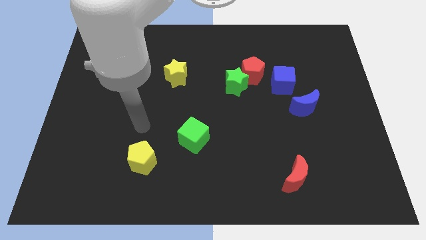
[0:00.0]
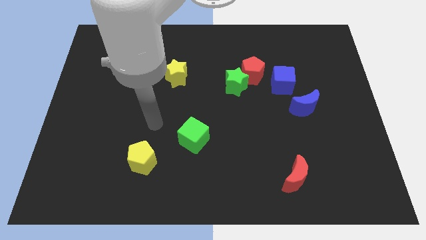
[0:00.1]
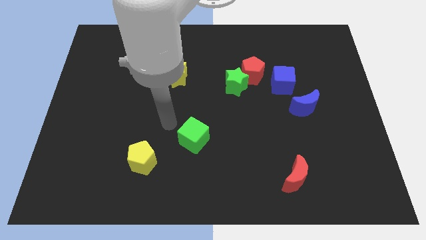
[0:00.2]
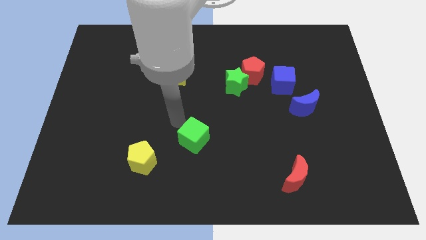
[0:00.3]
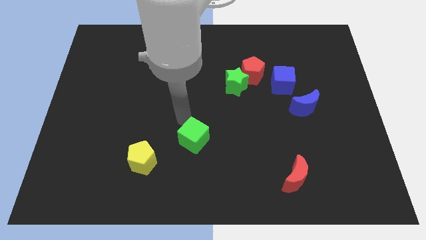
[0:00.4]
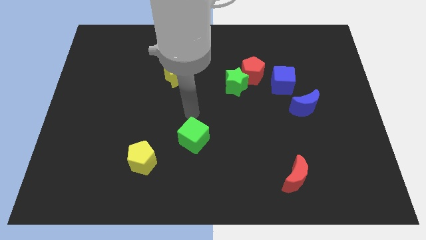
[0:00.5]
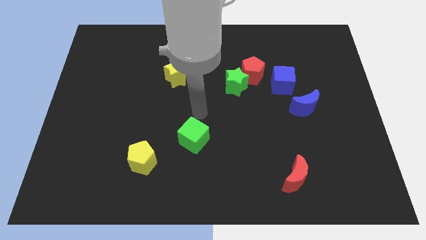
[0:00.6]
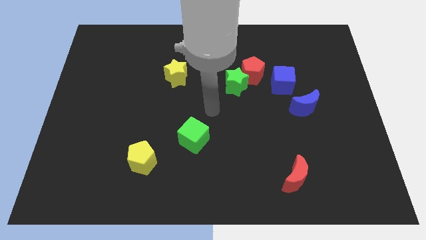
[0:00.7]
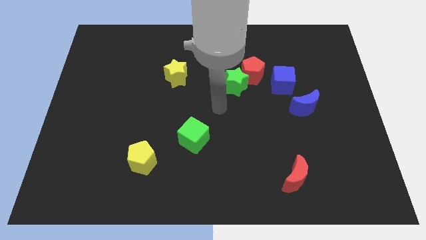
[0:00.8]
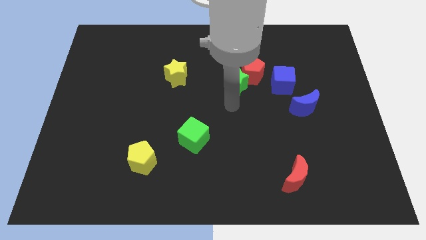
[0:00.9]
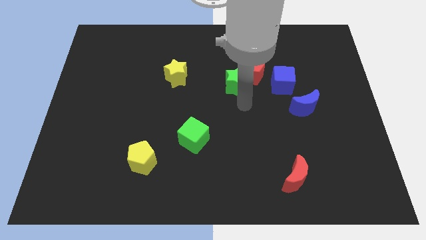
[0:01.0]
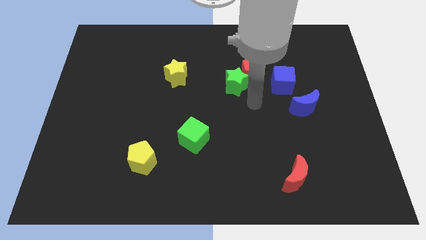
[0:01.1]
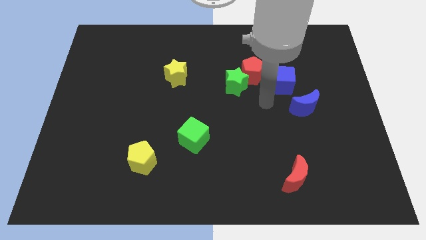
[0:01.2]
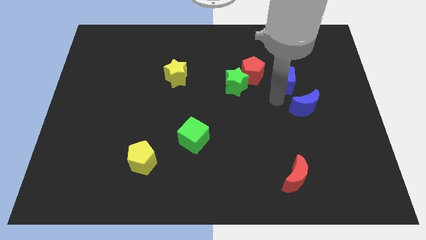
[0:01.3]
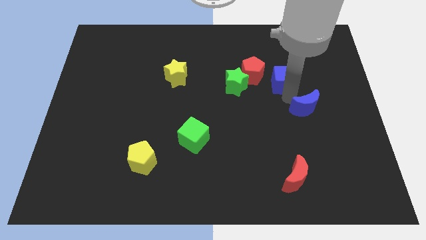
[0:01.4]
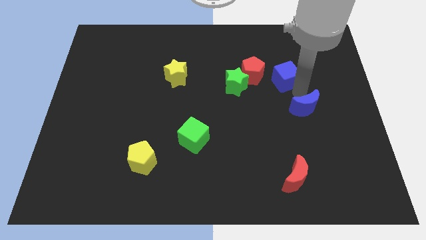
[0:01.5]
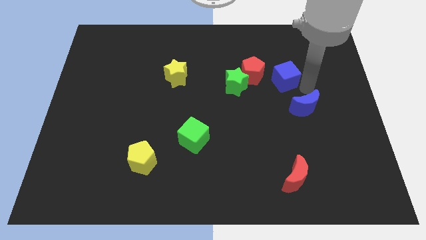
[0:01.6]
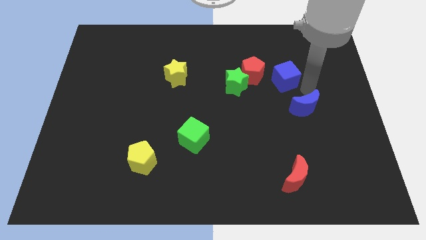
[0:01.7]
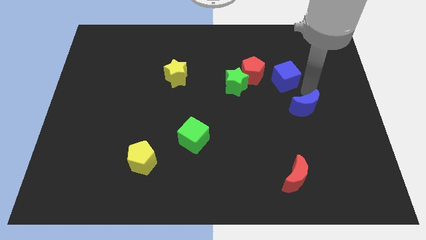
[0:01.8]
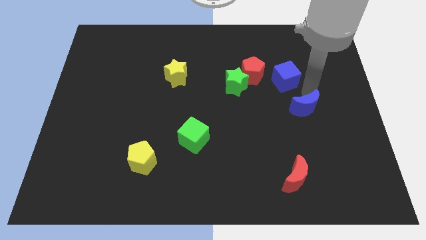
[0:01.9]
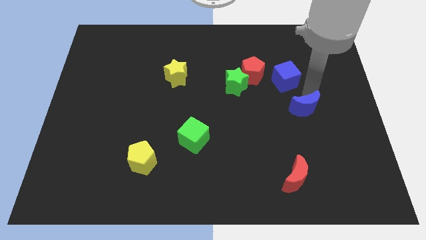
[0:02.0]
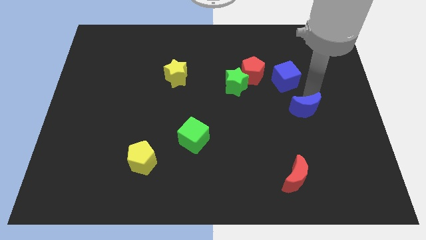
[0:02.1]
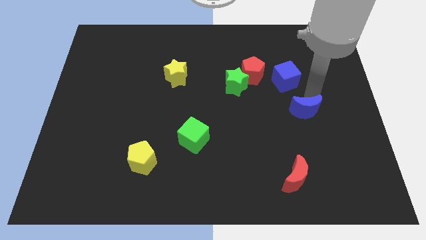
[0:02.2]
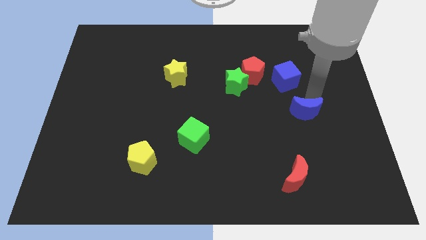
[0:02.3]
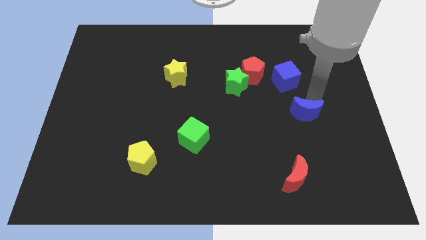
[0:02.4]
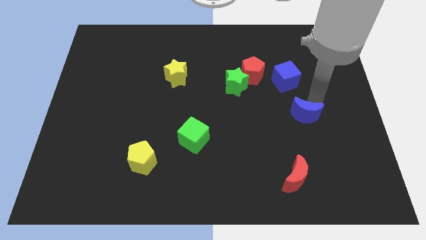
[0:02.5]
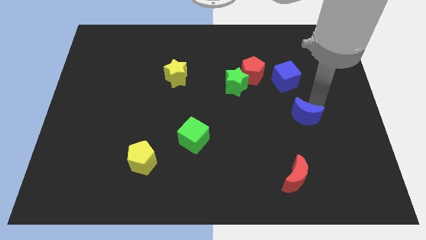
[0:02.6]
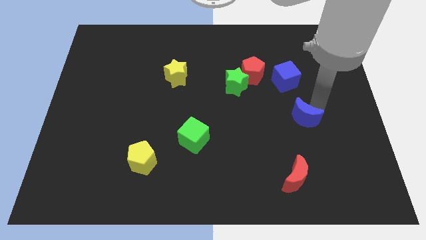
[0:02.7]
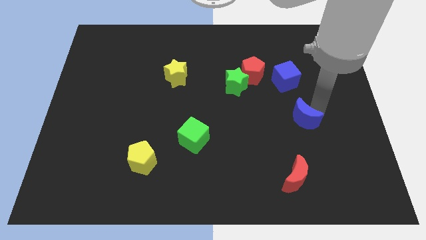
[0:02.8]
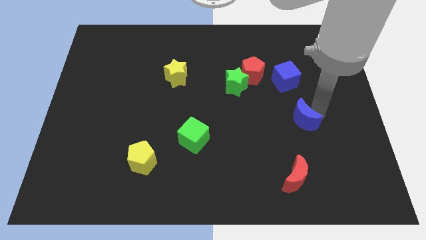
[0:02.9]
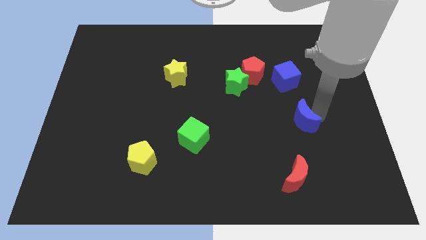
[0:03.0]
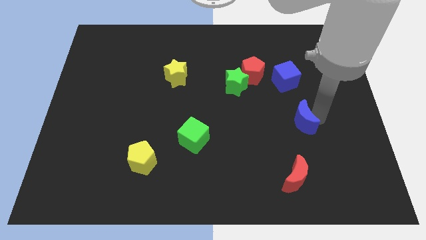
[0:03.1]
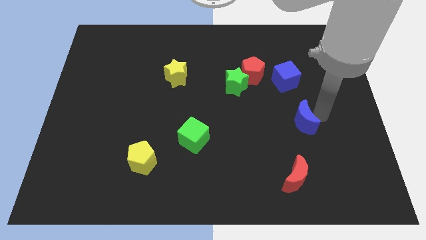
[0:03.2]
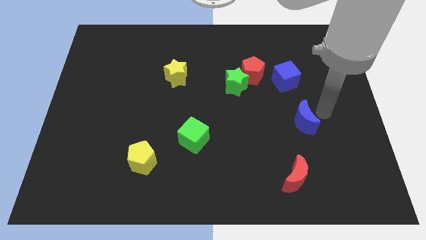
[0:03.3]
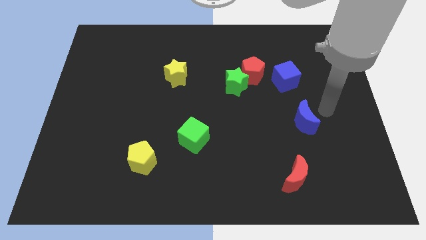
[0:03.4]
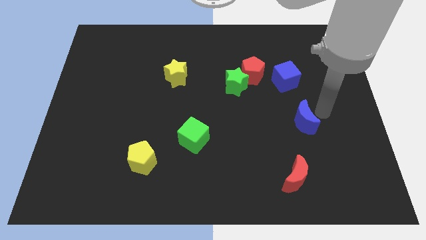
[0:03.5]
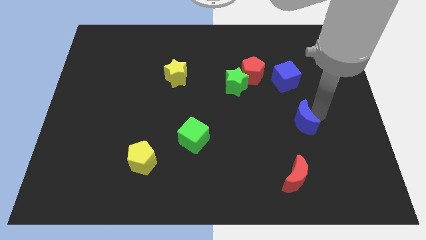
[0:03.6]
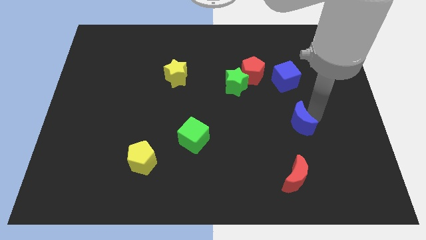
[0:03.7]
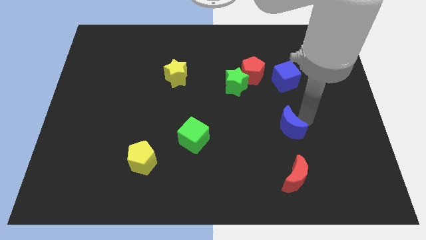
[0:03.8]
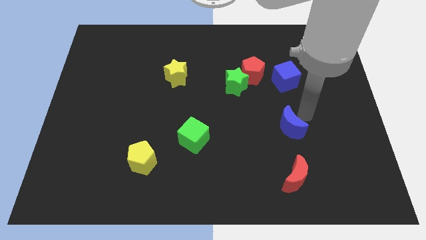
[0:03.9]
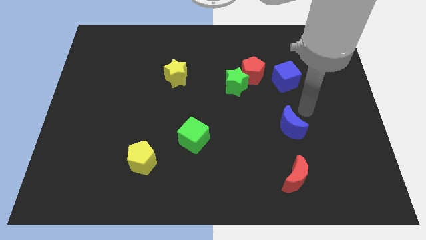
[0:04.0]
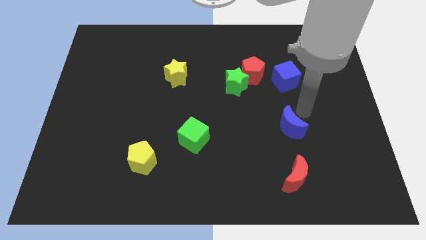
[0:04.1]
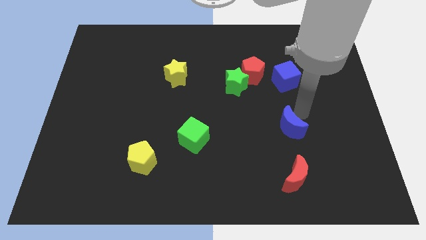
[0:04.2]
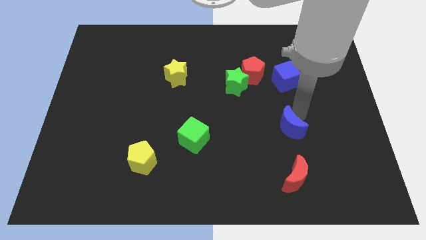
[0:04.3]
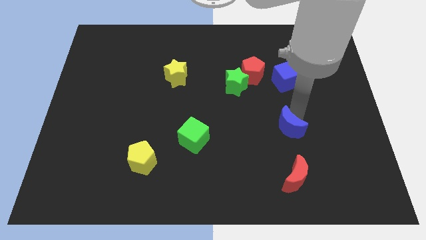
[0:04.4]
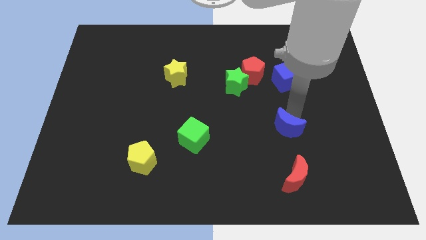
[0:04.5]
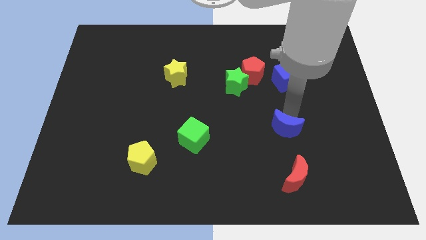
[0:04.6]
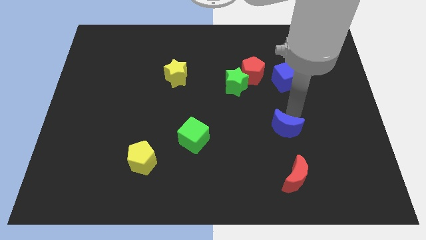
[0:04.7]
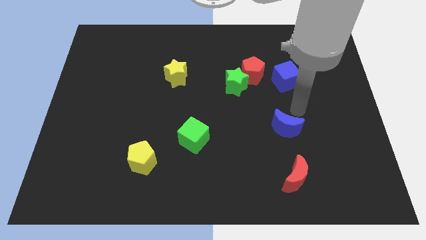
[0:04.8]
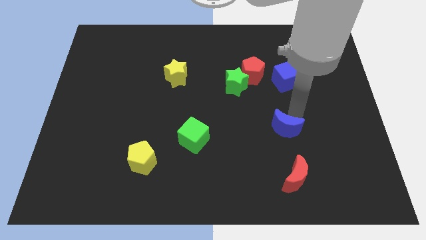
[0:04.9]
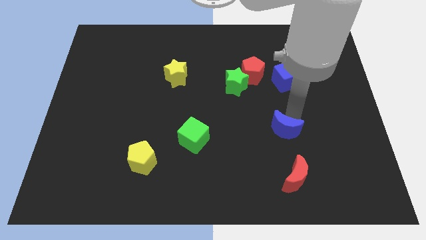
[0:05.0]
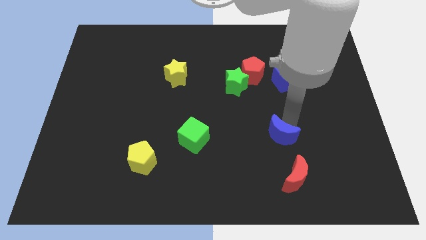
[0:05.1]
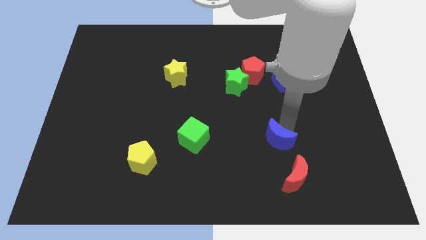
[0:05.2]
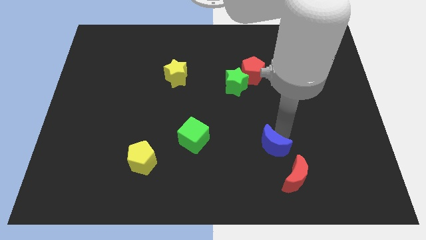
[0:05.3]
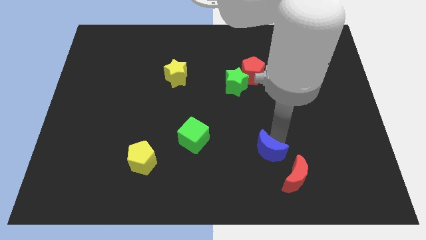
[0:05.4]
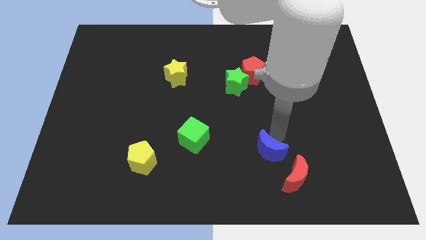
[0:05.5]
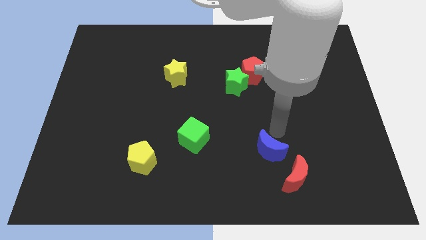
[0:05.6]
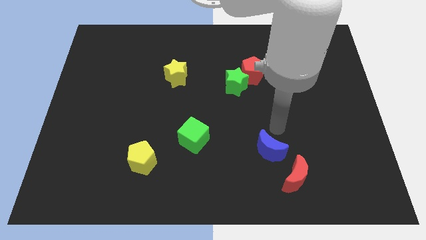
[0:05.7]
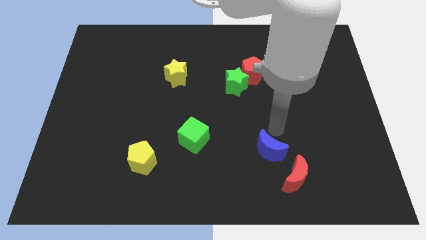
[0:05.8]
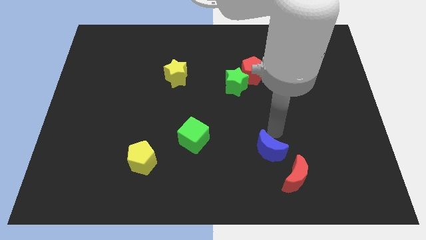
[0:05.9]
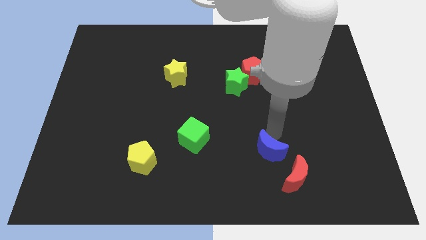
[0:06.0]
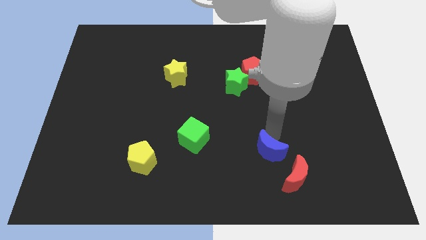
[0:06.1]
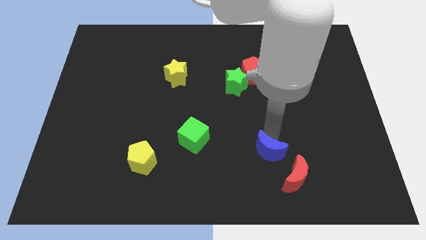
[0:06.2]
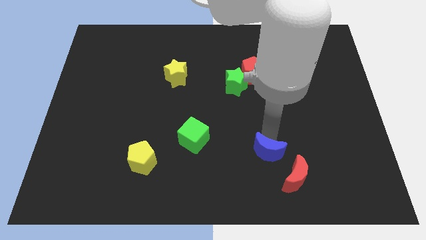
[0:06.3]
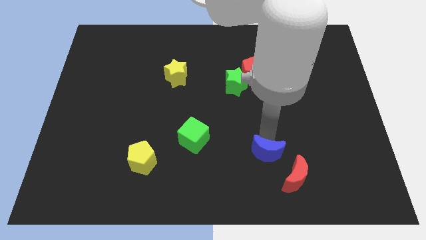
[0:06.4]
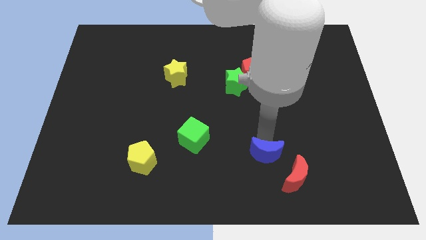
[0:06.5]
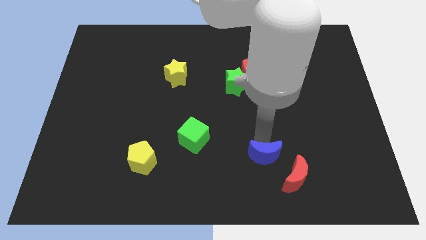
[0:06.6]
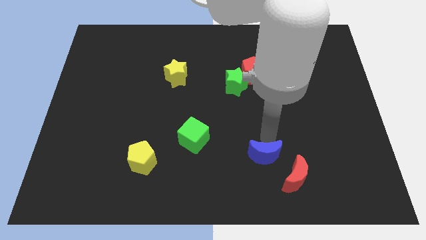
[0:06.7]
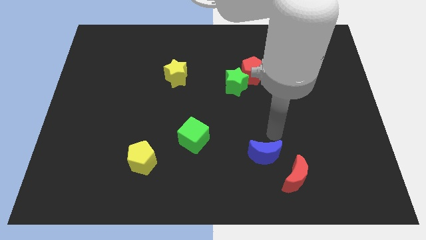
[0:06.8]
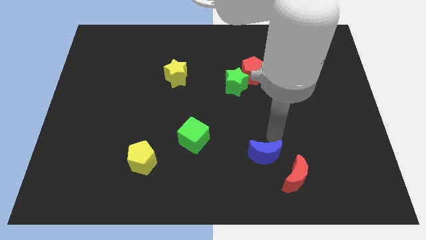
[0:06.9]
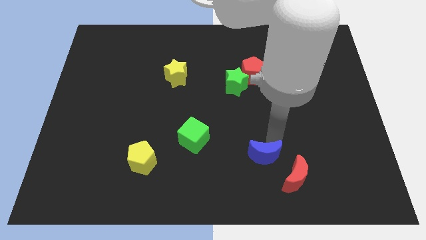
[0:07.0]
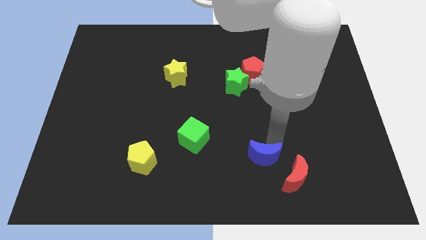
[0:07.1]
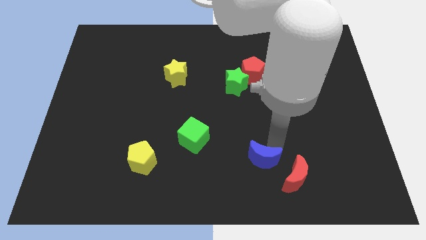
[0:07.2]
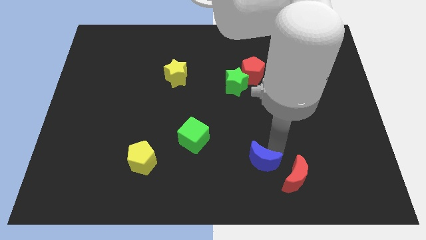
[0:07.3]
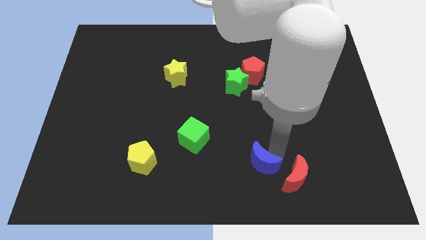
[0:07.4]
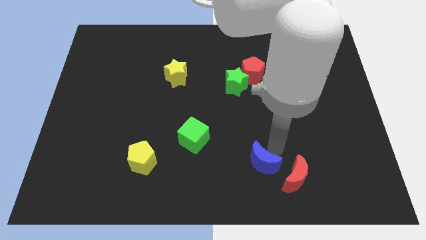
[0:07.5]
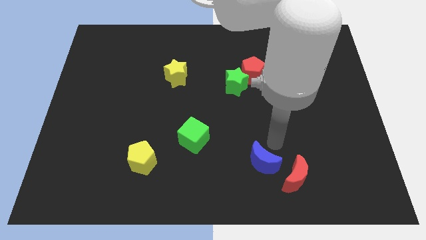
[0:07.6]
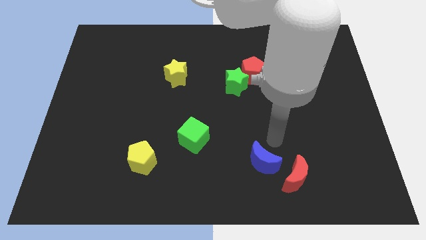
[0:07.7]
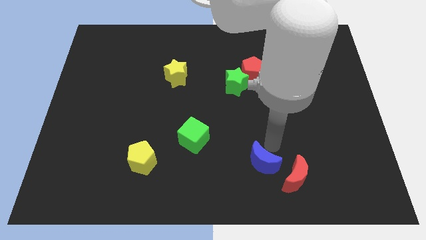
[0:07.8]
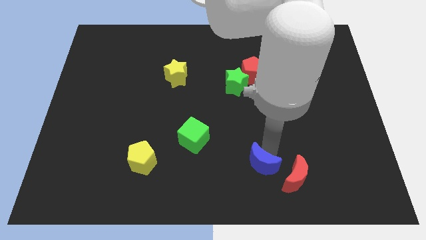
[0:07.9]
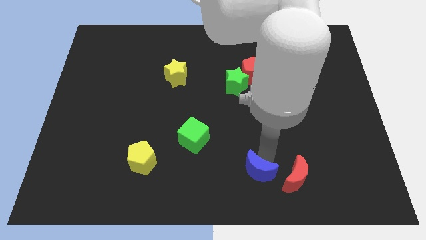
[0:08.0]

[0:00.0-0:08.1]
put the blue moon to the bottom
